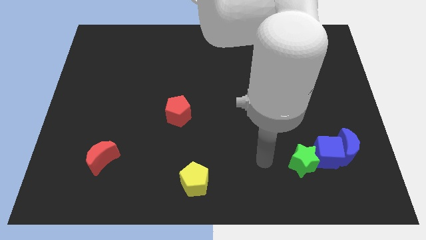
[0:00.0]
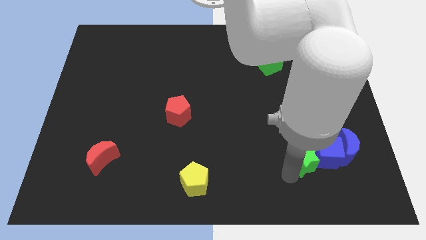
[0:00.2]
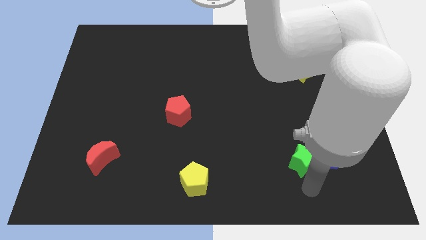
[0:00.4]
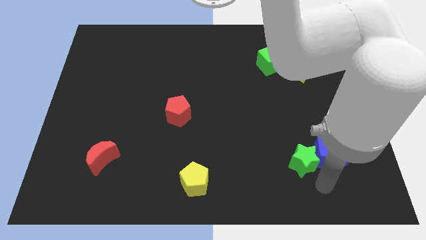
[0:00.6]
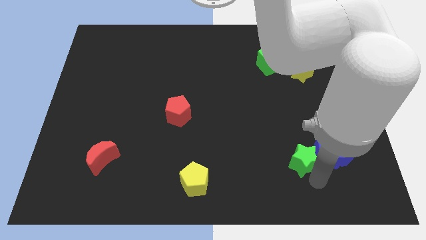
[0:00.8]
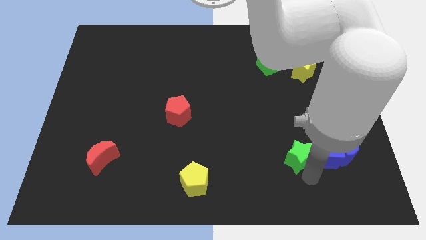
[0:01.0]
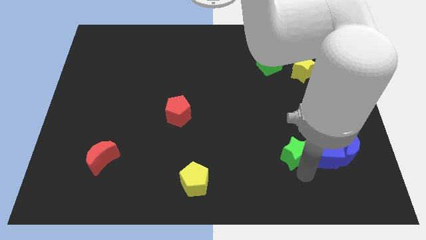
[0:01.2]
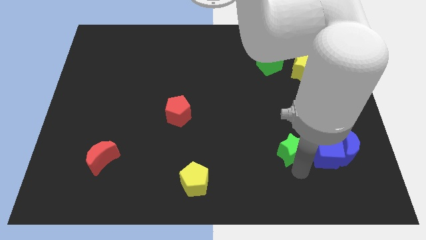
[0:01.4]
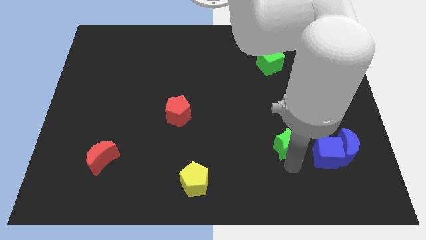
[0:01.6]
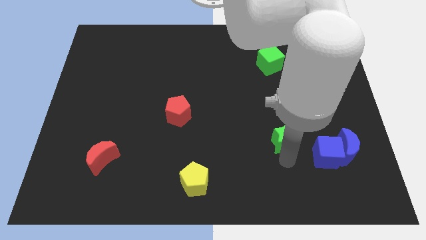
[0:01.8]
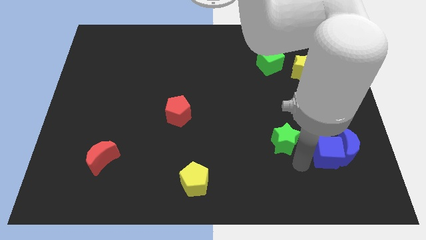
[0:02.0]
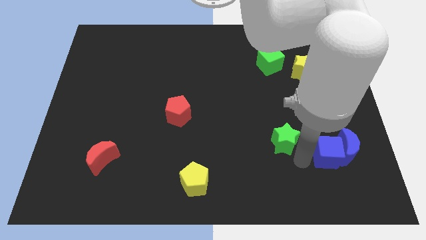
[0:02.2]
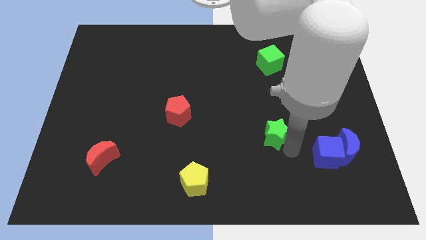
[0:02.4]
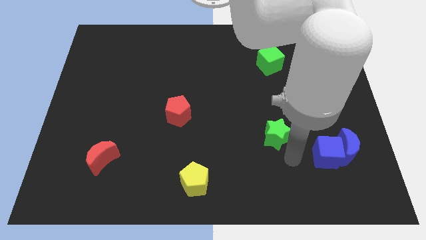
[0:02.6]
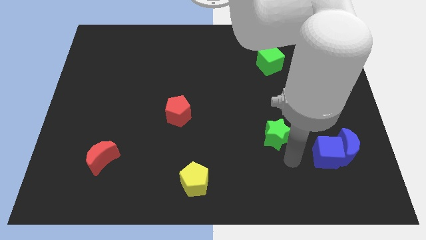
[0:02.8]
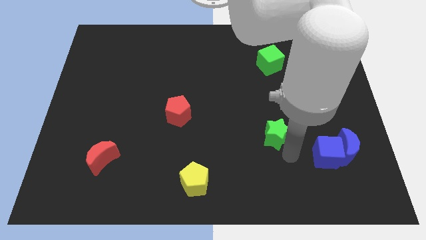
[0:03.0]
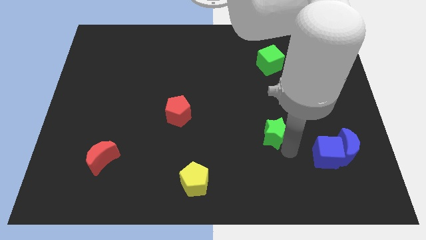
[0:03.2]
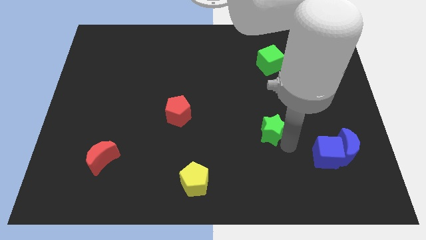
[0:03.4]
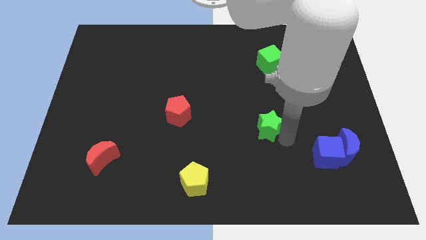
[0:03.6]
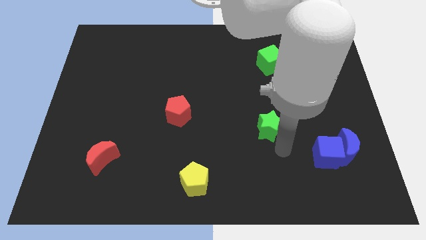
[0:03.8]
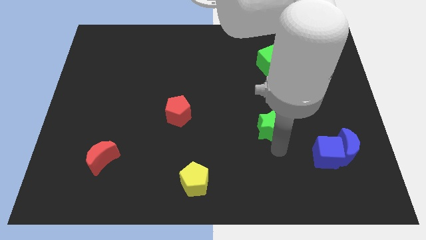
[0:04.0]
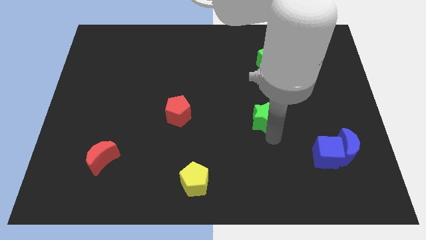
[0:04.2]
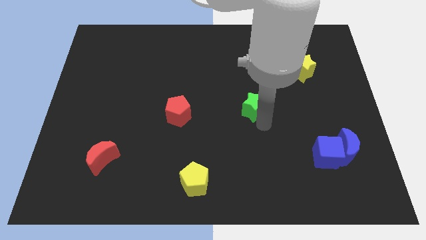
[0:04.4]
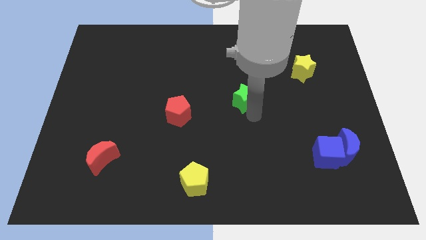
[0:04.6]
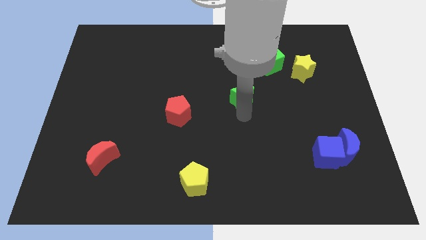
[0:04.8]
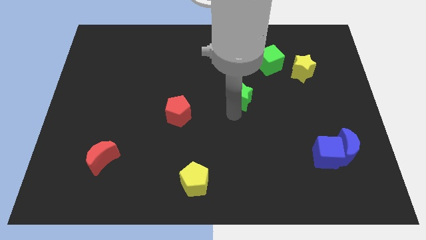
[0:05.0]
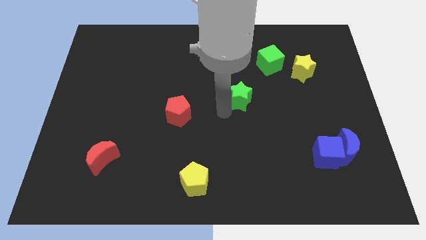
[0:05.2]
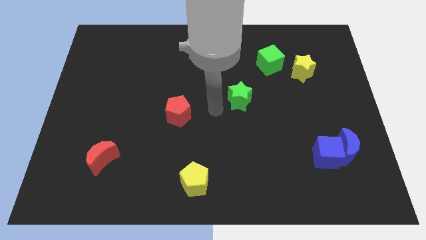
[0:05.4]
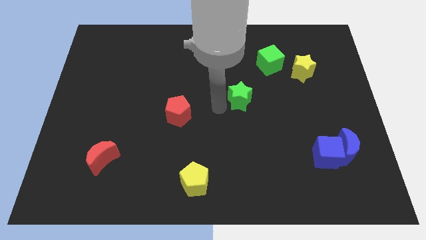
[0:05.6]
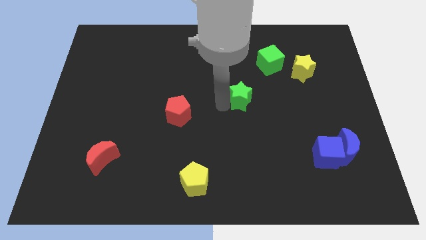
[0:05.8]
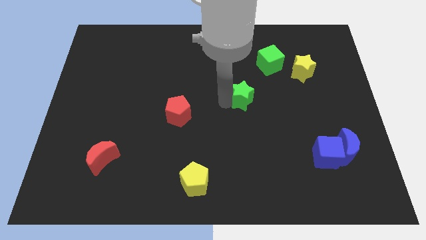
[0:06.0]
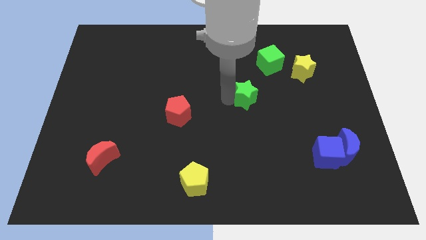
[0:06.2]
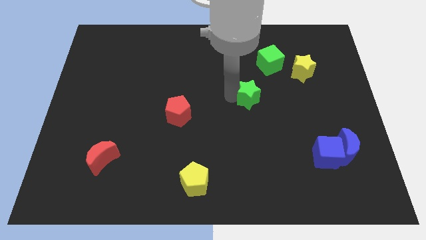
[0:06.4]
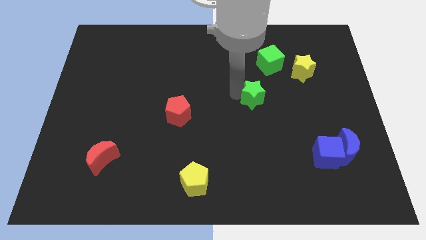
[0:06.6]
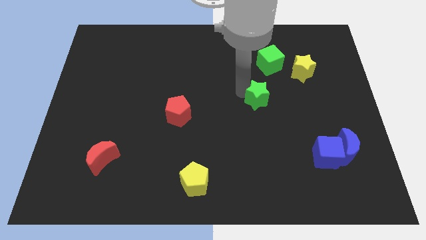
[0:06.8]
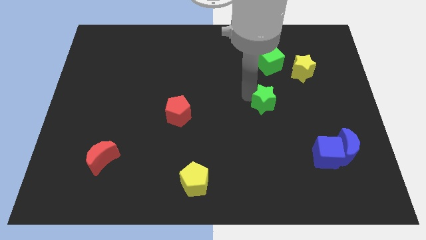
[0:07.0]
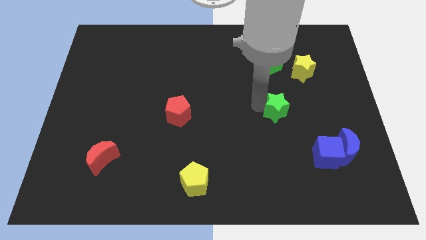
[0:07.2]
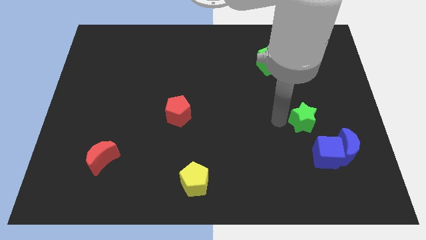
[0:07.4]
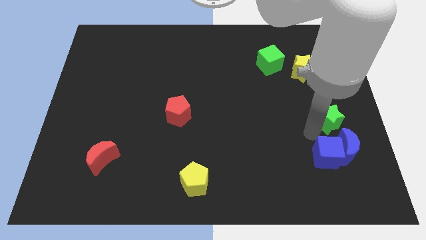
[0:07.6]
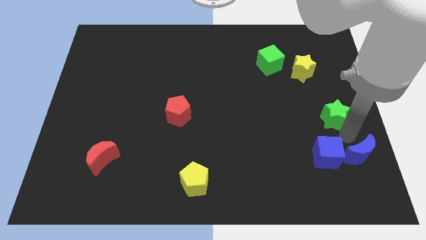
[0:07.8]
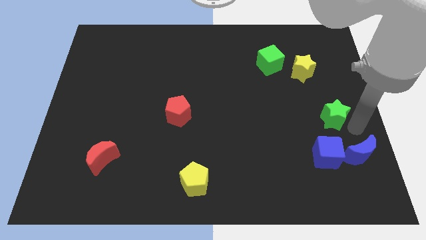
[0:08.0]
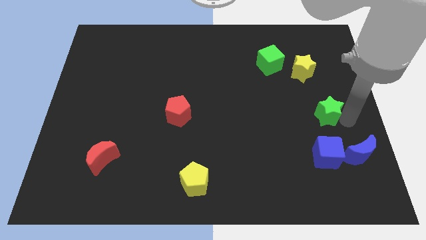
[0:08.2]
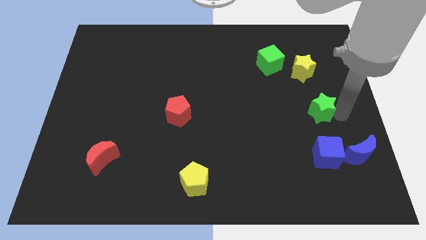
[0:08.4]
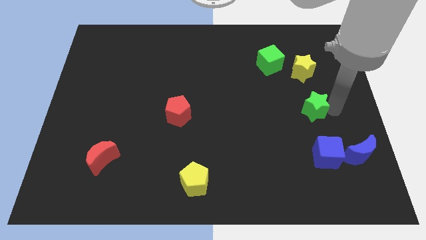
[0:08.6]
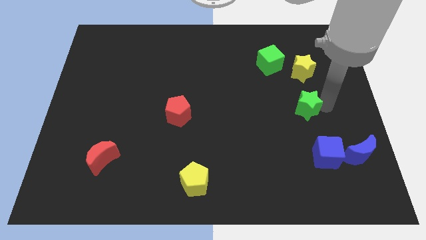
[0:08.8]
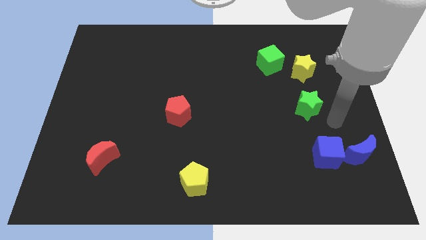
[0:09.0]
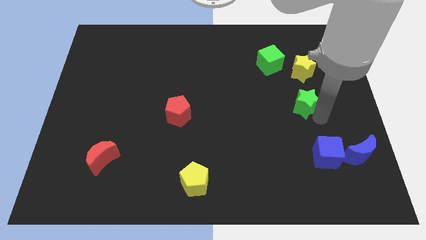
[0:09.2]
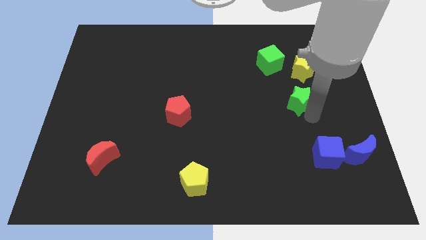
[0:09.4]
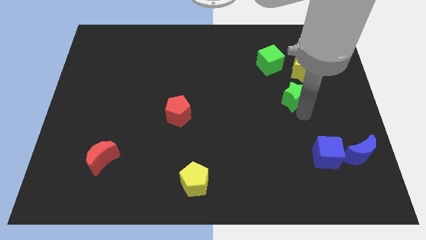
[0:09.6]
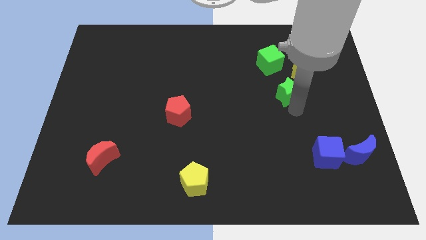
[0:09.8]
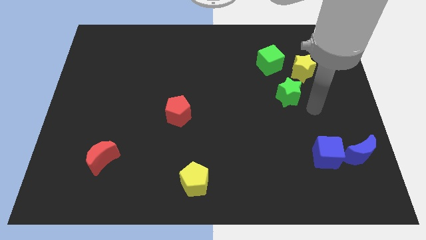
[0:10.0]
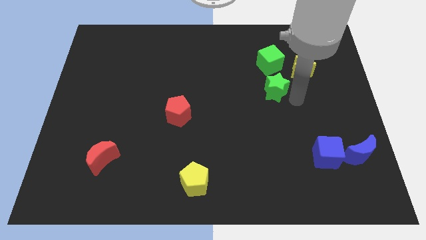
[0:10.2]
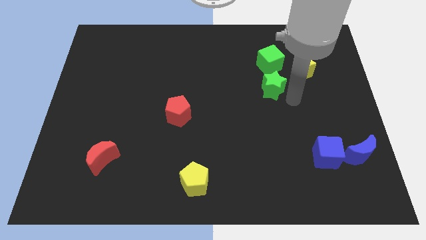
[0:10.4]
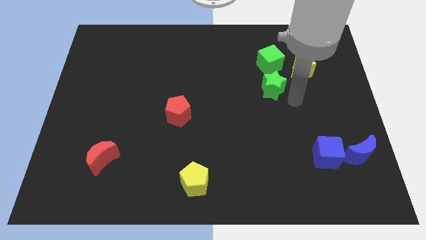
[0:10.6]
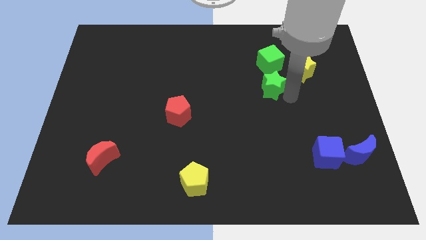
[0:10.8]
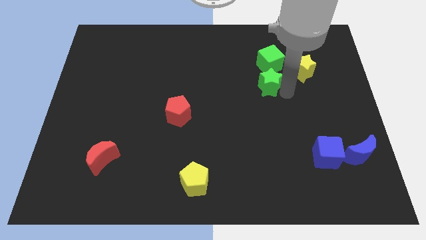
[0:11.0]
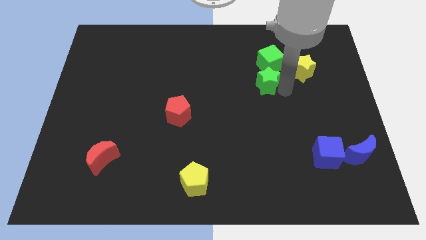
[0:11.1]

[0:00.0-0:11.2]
push the green star to the bottom left side of the green cube

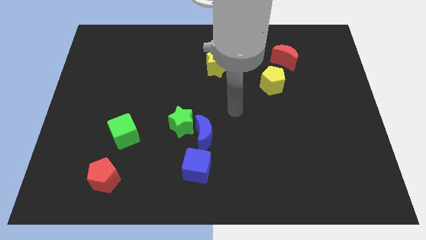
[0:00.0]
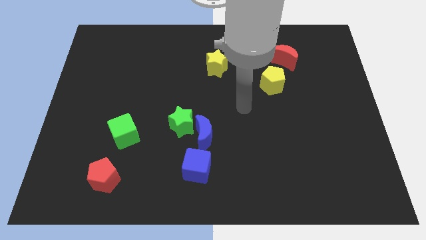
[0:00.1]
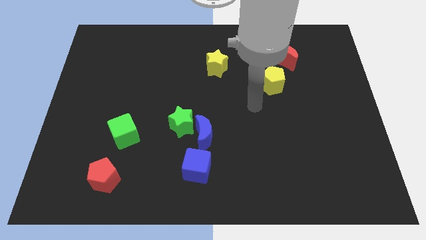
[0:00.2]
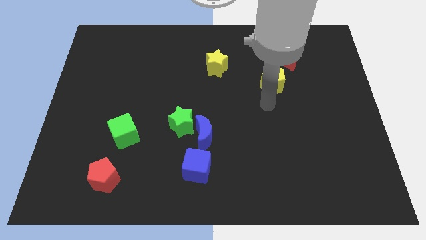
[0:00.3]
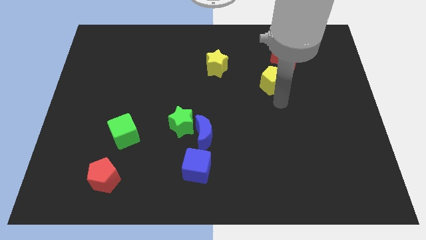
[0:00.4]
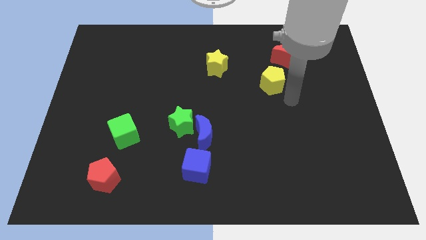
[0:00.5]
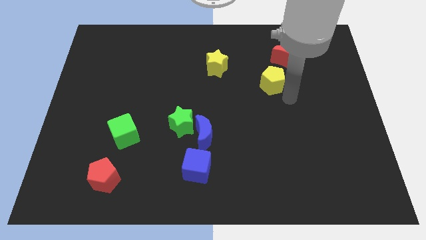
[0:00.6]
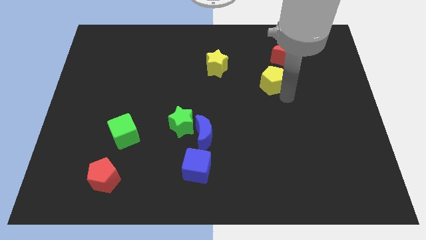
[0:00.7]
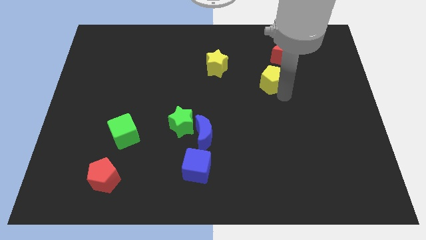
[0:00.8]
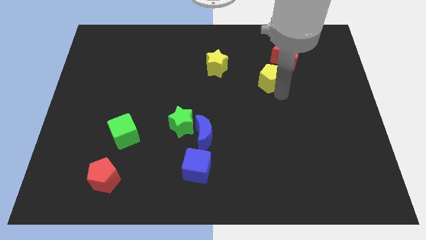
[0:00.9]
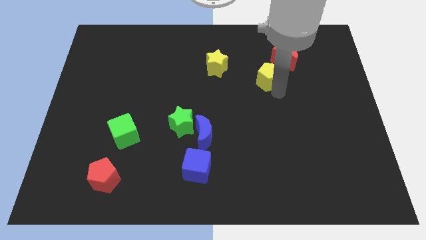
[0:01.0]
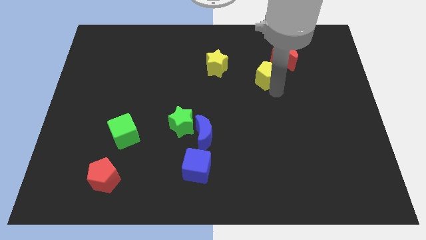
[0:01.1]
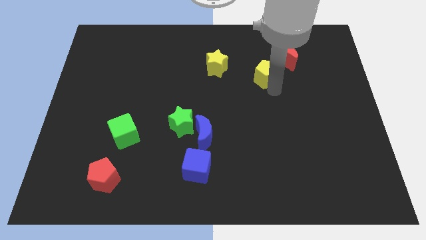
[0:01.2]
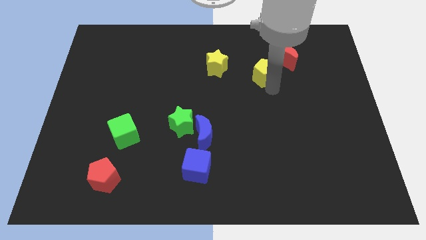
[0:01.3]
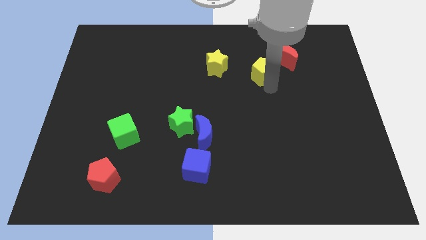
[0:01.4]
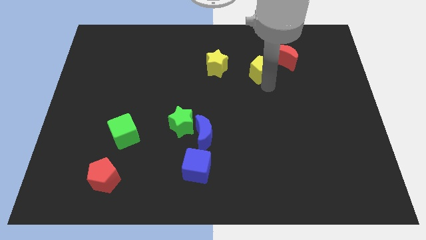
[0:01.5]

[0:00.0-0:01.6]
put the yellow pentagon to the left of the red moon
